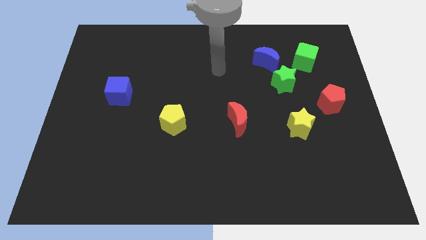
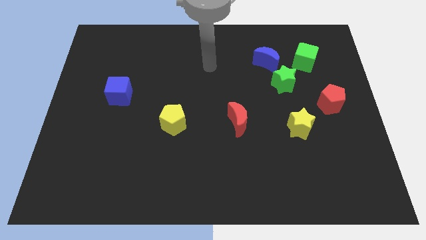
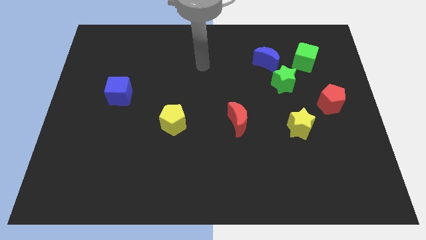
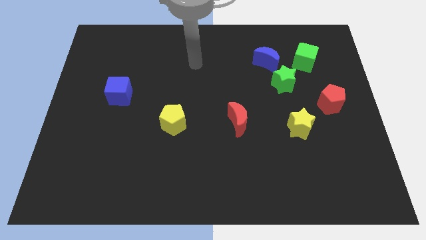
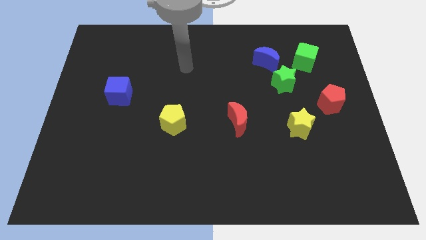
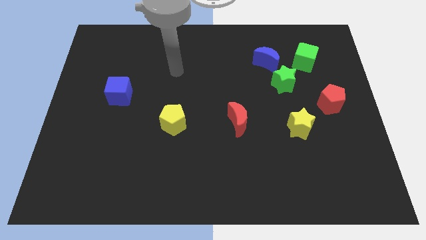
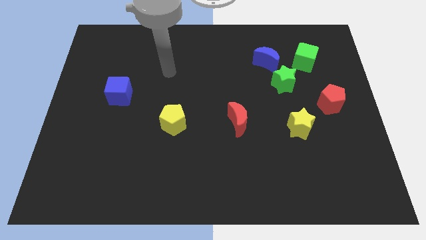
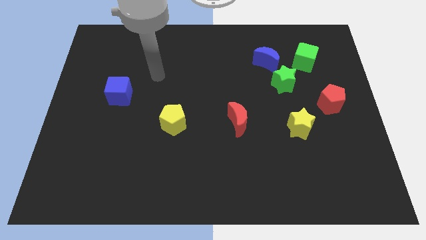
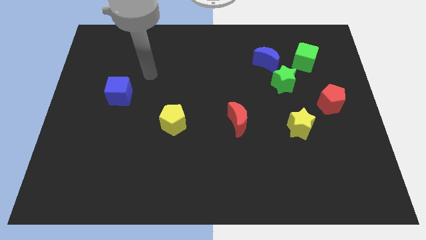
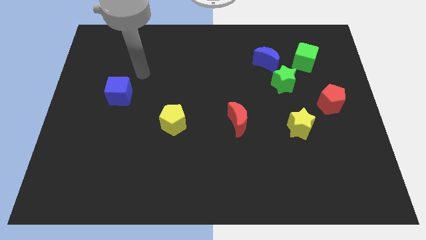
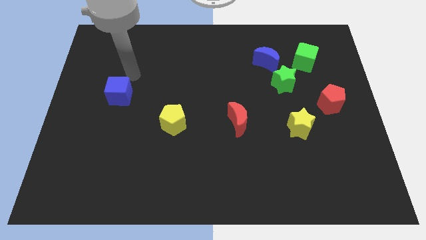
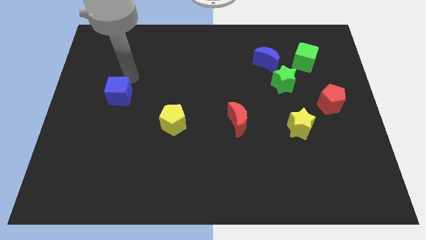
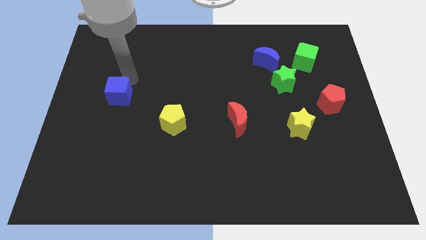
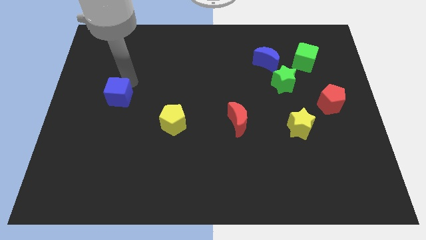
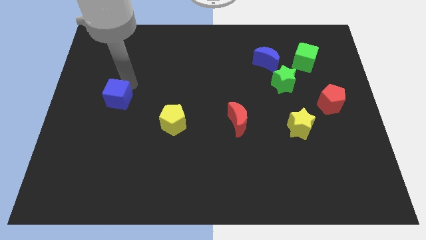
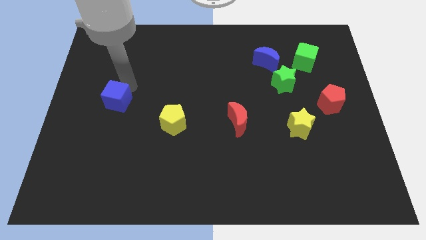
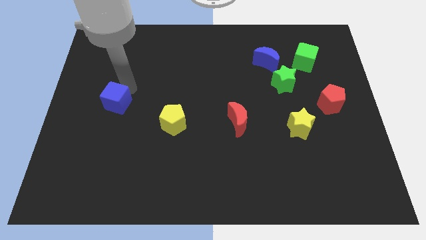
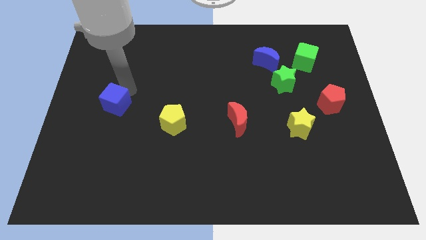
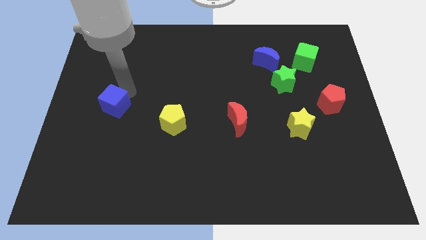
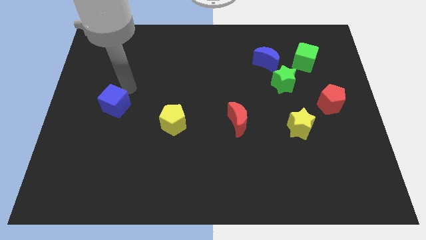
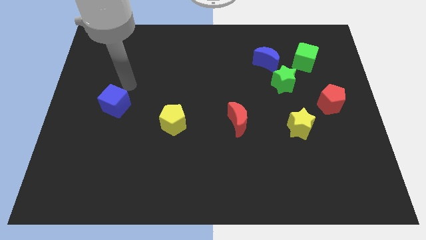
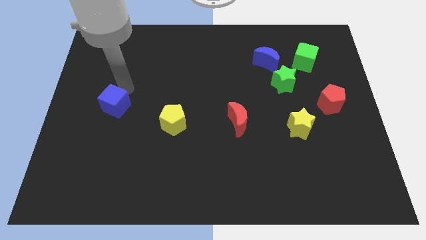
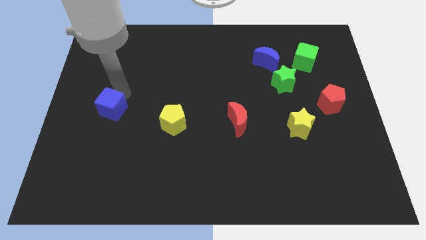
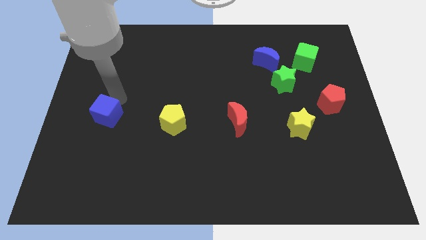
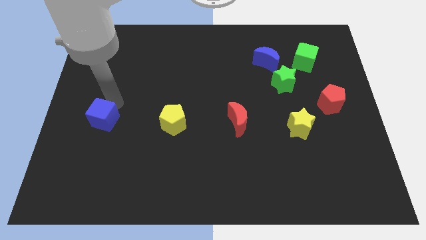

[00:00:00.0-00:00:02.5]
slightly push the blue cube downwards

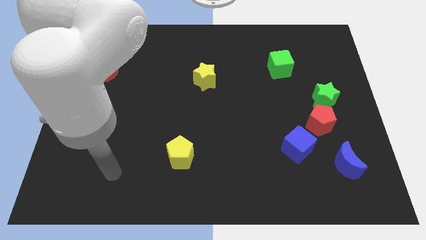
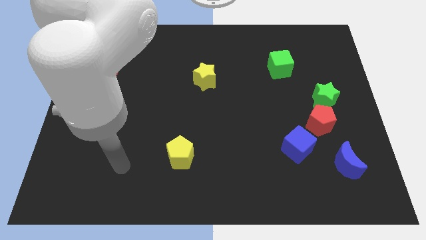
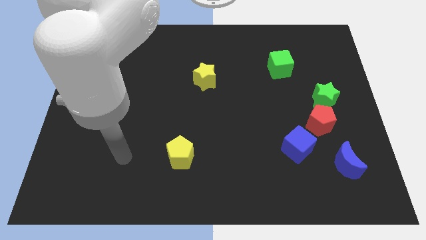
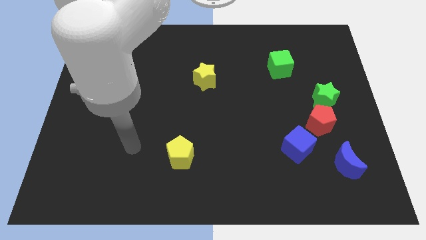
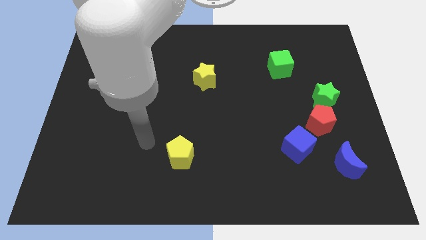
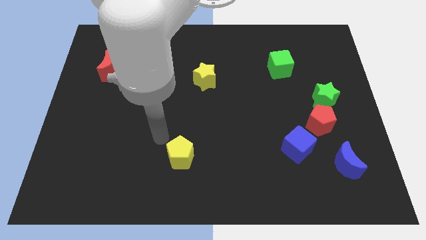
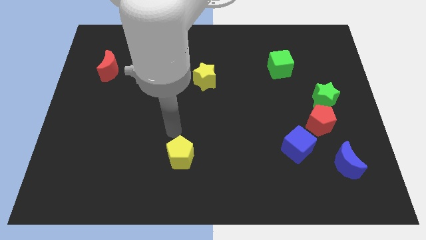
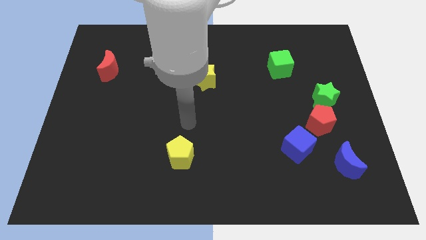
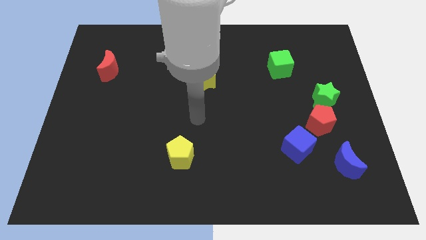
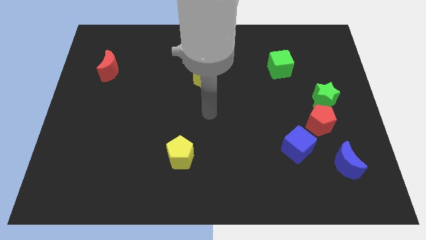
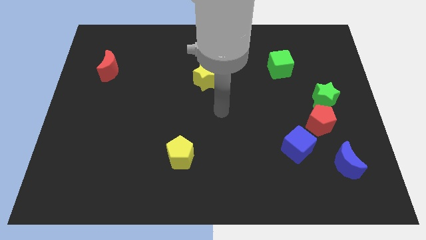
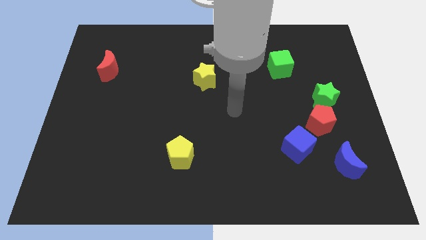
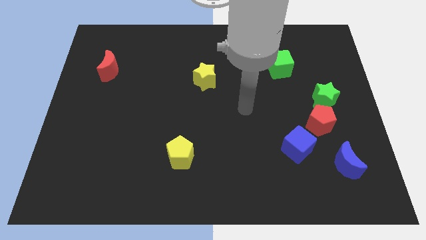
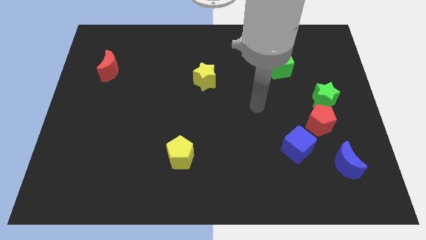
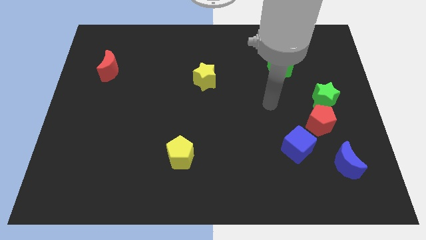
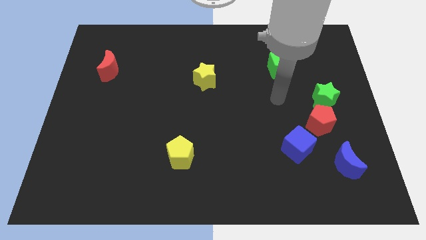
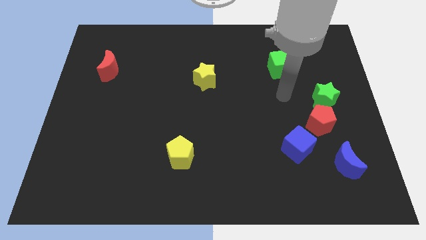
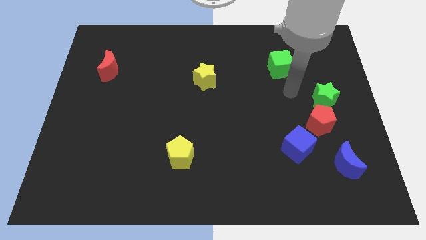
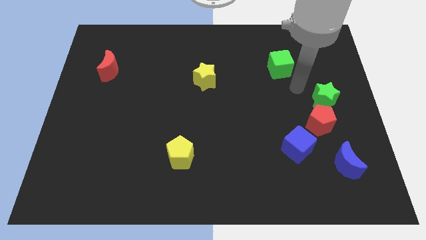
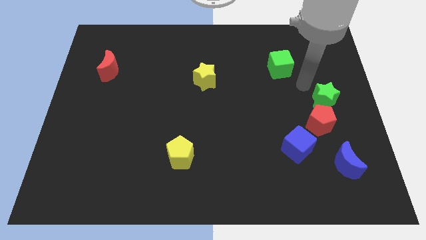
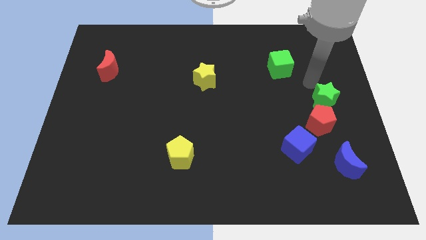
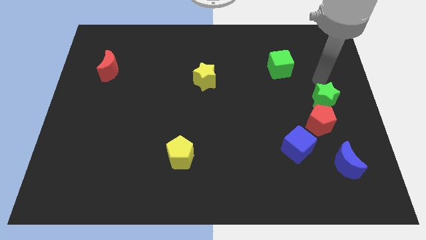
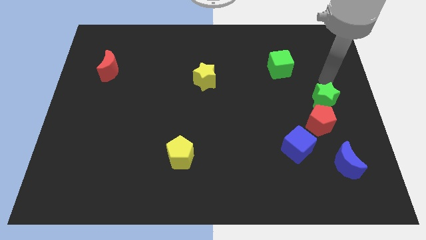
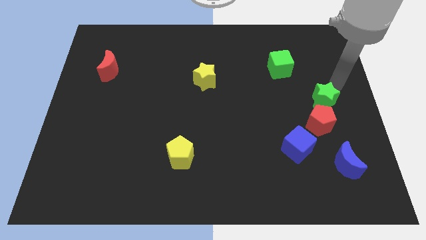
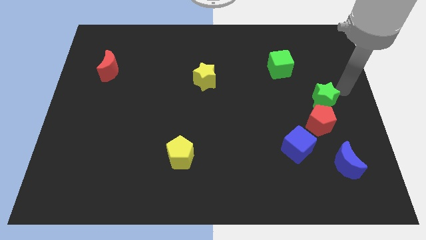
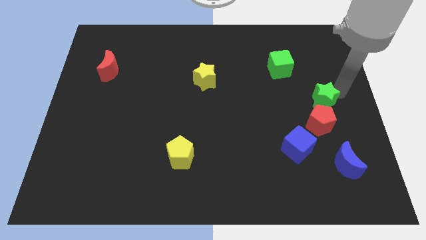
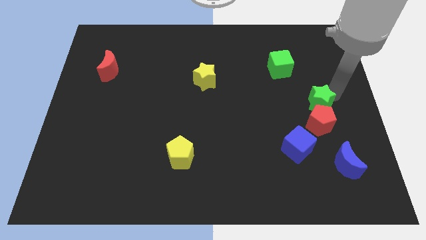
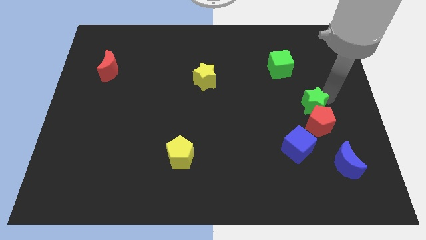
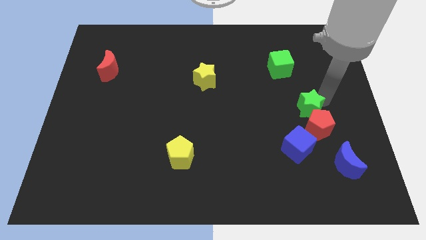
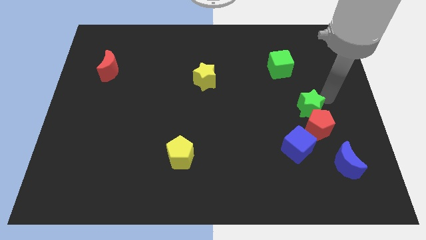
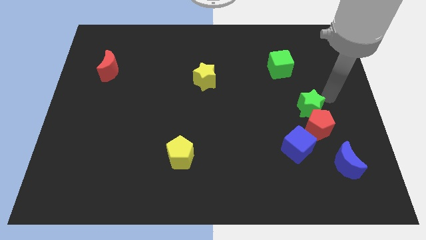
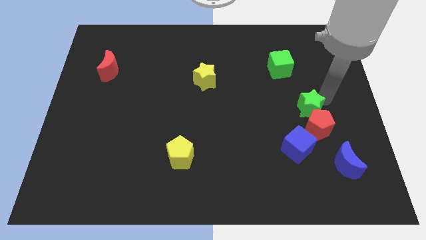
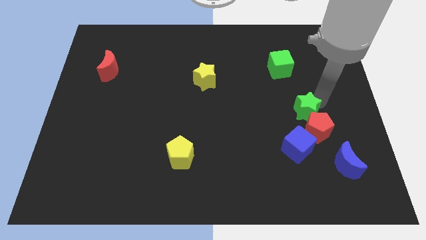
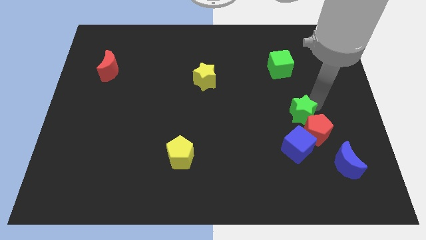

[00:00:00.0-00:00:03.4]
slide the green star down and then left a little

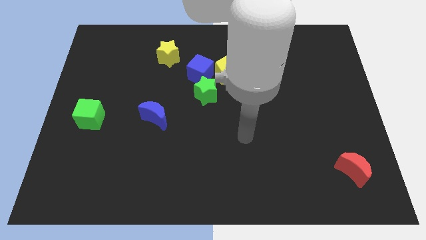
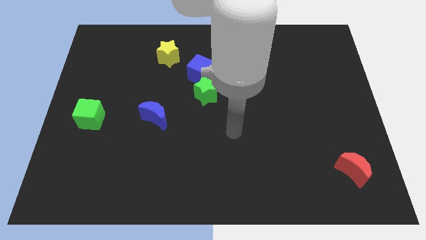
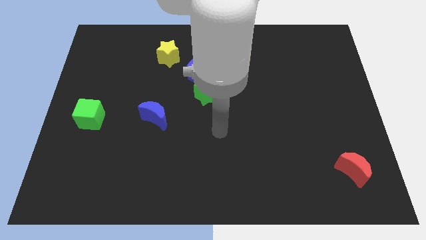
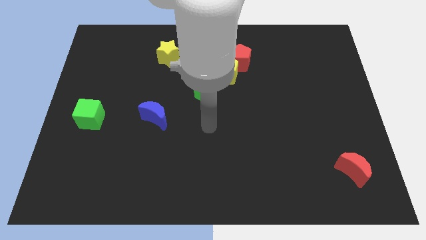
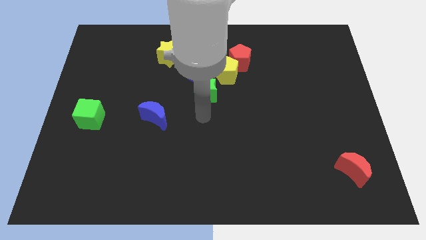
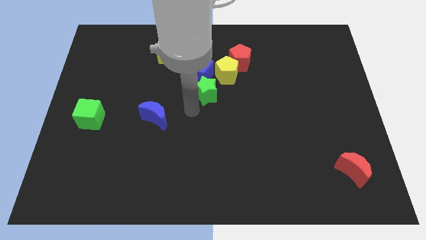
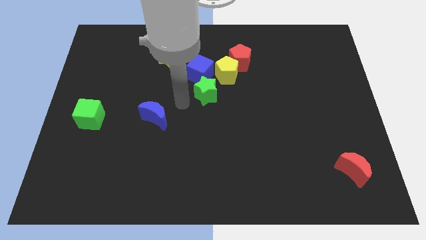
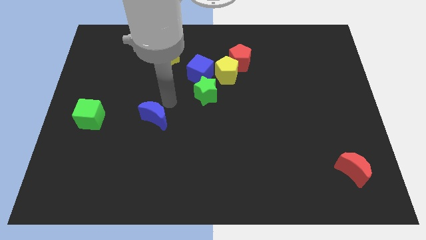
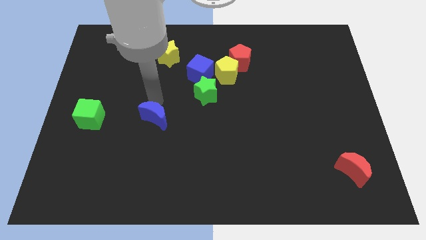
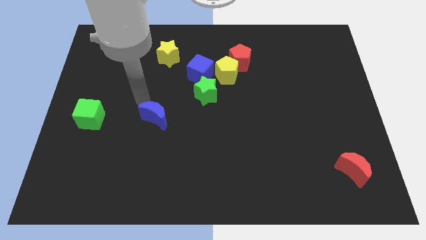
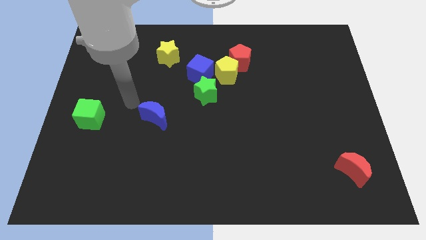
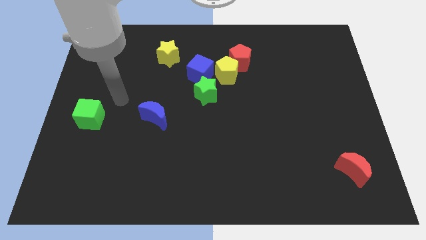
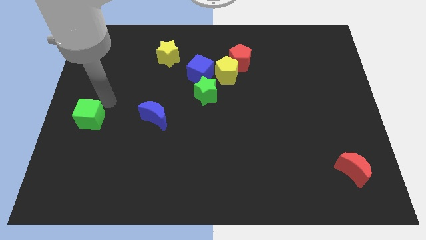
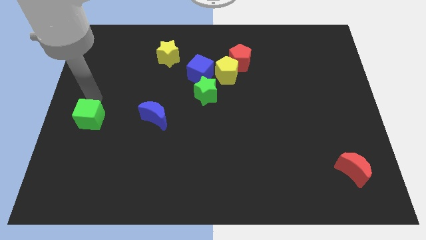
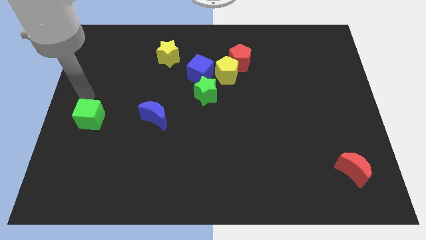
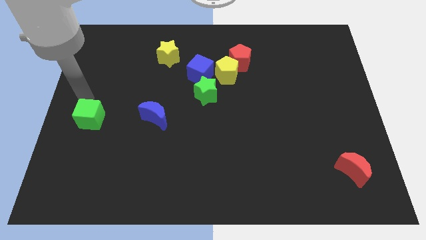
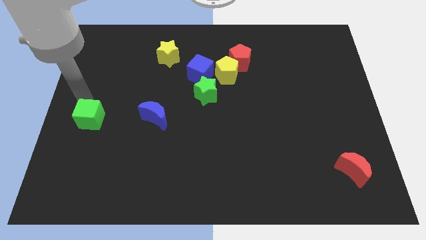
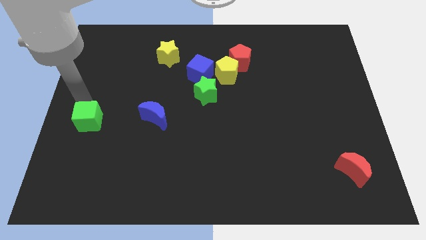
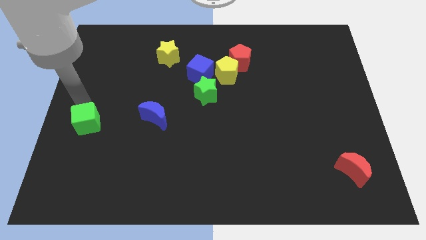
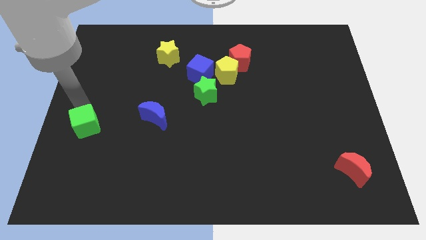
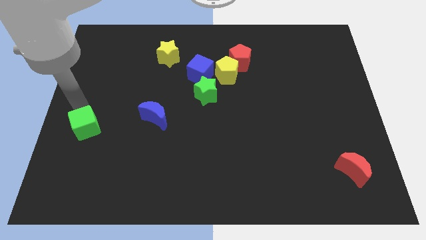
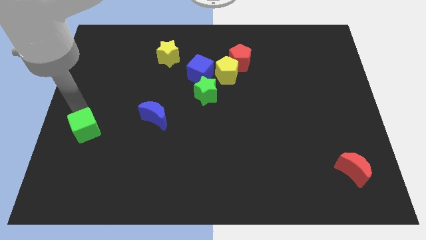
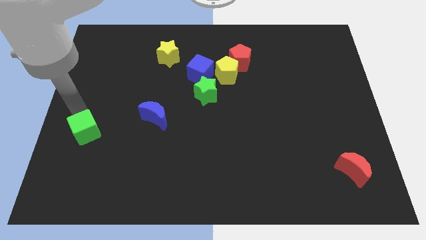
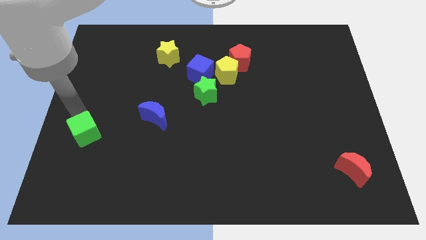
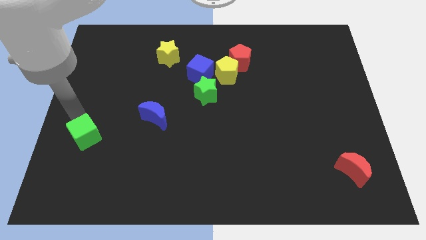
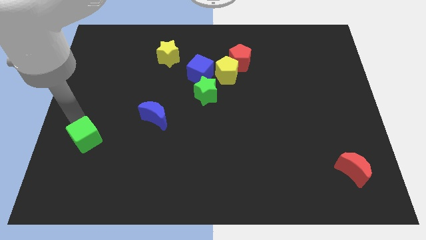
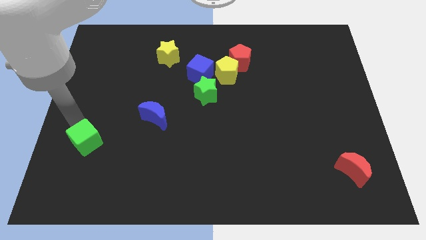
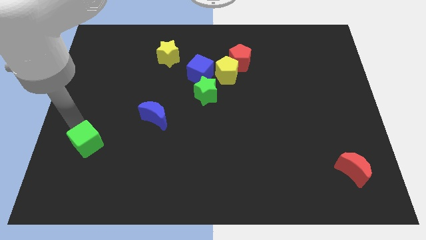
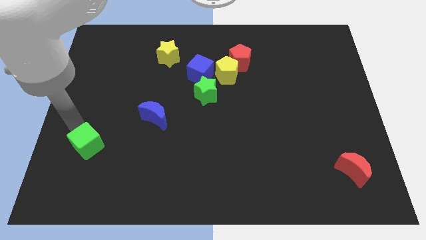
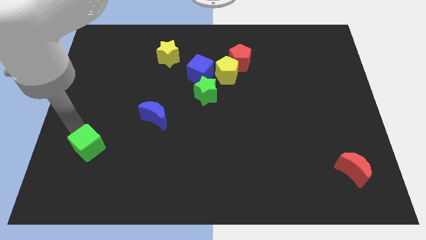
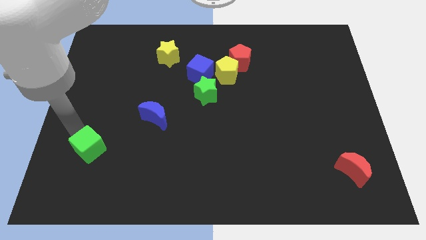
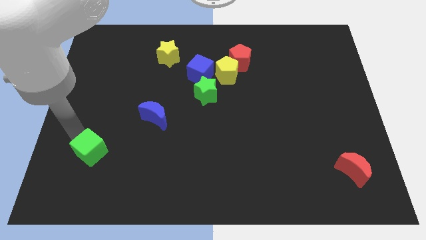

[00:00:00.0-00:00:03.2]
slide the green cube downwards and then right somewhat
